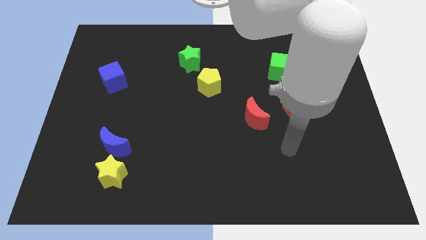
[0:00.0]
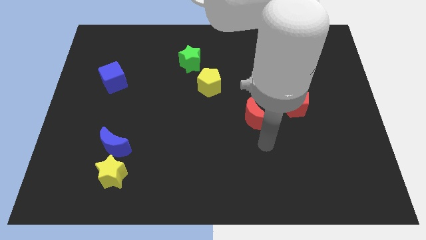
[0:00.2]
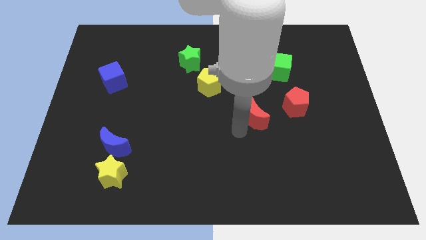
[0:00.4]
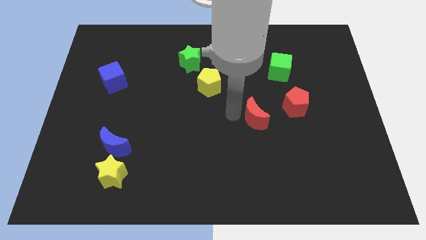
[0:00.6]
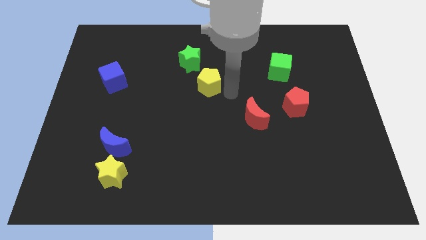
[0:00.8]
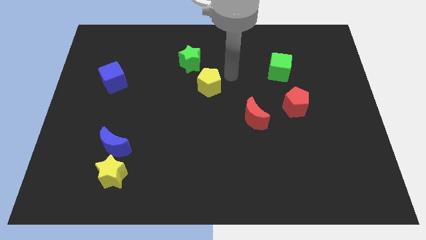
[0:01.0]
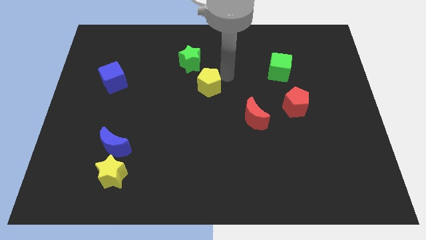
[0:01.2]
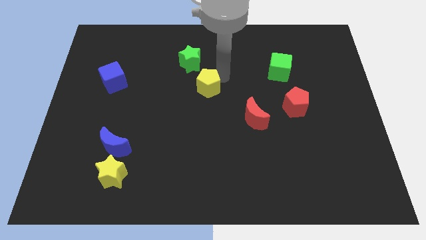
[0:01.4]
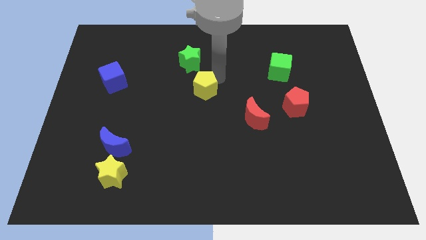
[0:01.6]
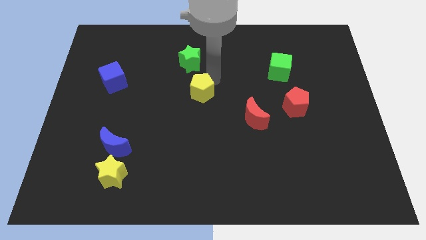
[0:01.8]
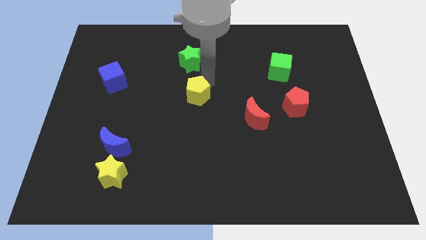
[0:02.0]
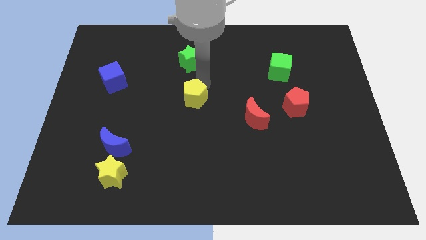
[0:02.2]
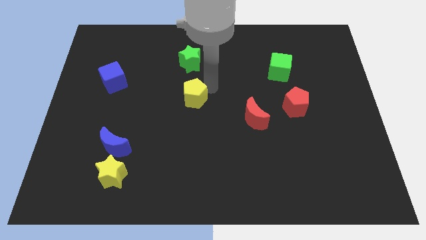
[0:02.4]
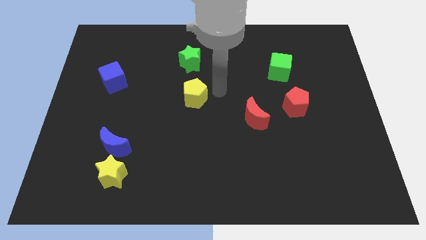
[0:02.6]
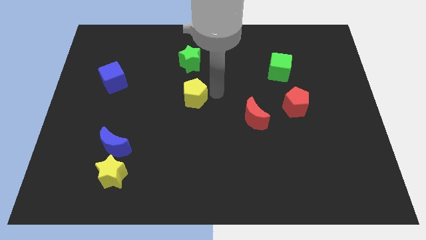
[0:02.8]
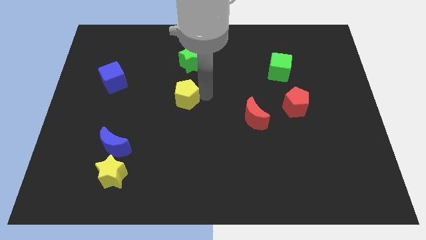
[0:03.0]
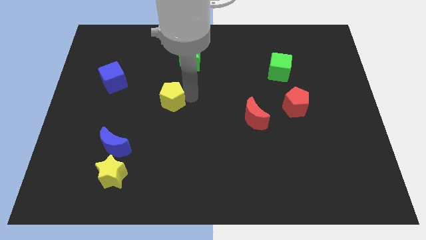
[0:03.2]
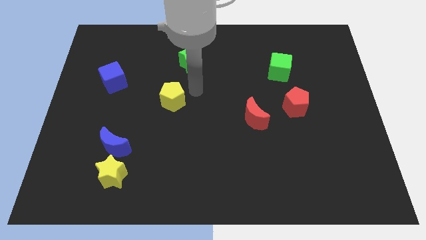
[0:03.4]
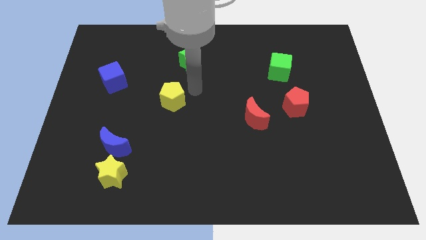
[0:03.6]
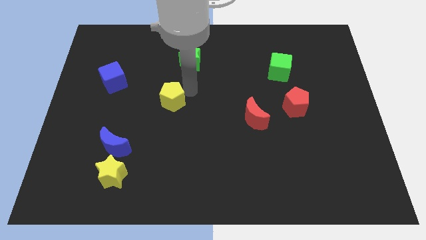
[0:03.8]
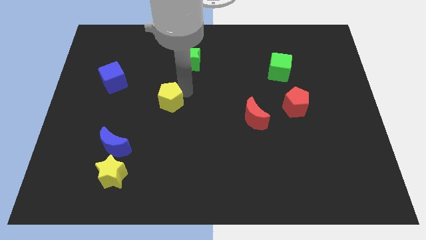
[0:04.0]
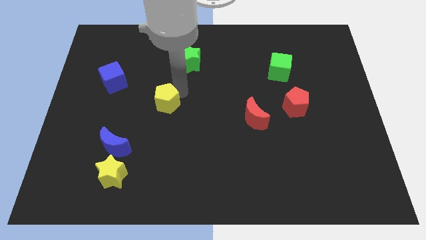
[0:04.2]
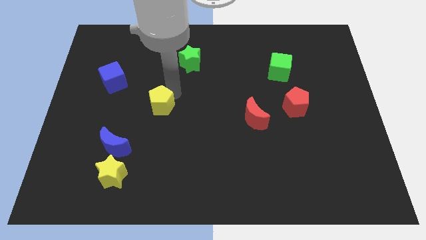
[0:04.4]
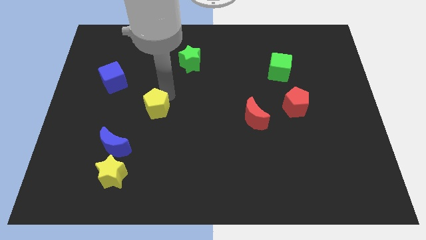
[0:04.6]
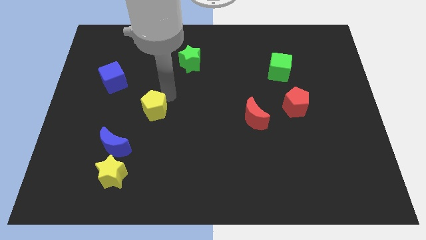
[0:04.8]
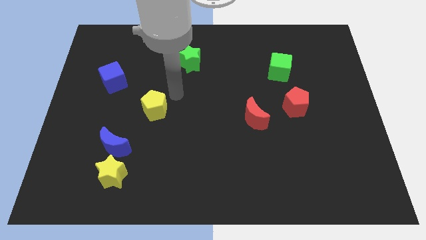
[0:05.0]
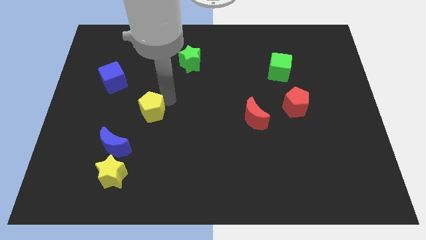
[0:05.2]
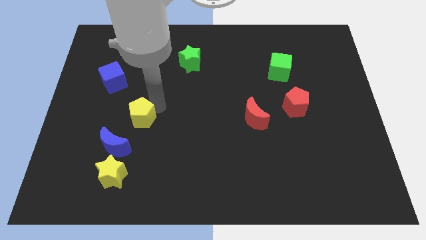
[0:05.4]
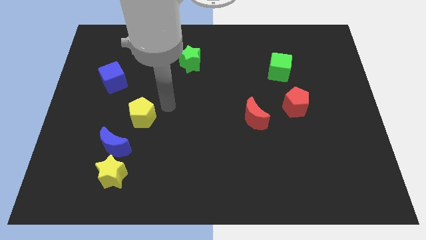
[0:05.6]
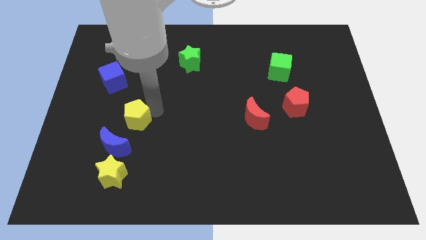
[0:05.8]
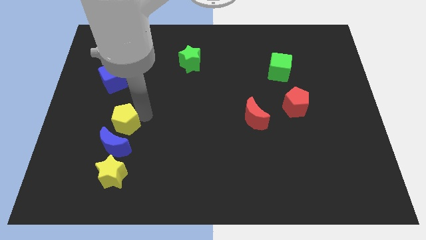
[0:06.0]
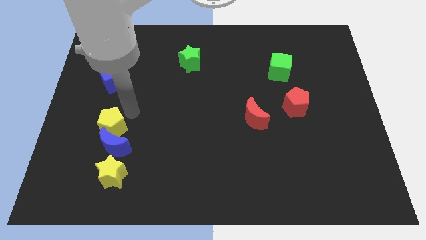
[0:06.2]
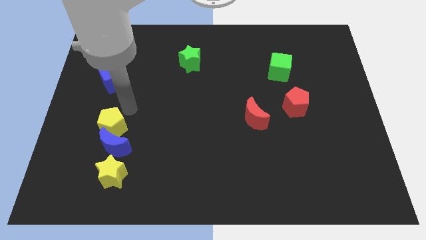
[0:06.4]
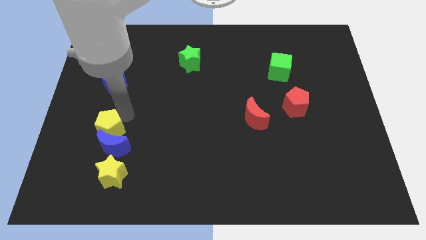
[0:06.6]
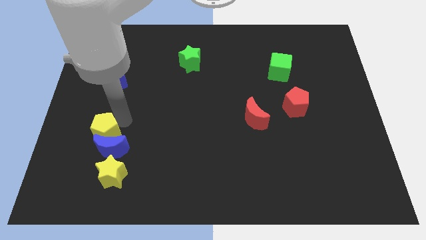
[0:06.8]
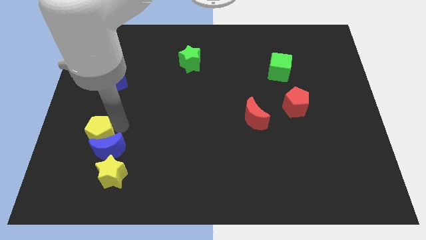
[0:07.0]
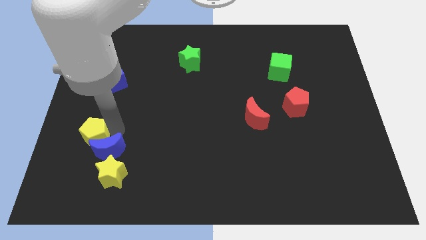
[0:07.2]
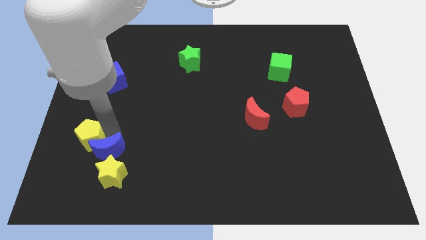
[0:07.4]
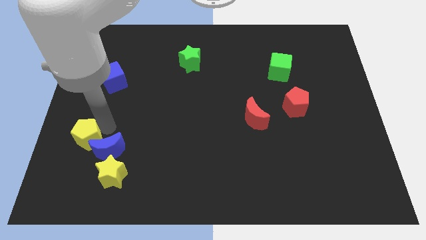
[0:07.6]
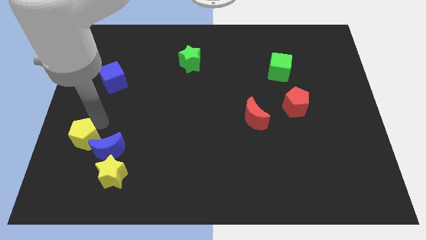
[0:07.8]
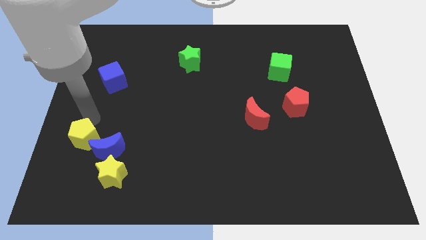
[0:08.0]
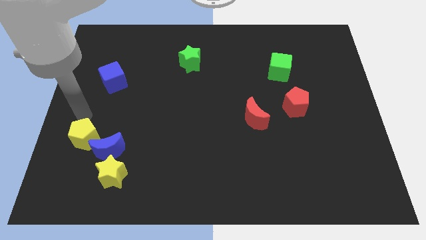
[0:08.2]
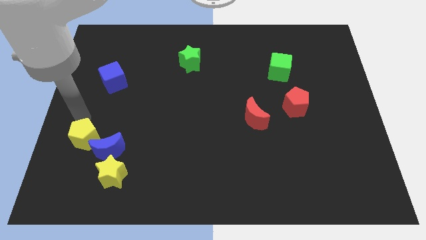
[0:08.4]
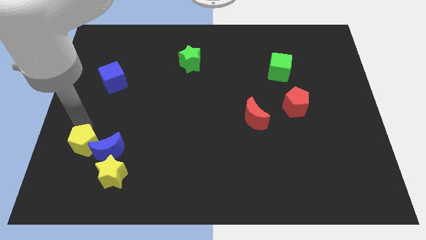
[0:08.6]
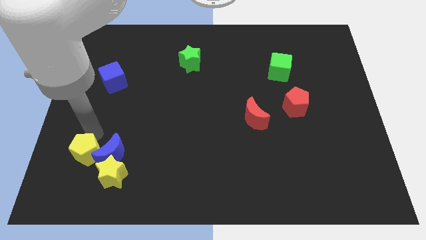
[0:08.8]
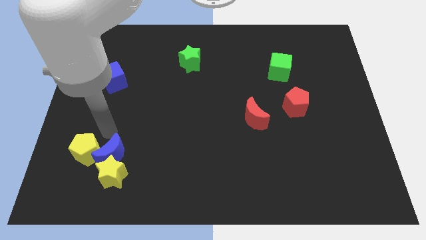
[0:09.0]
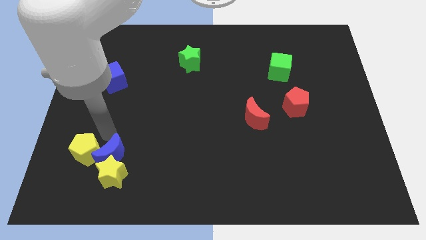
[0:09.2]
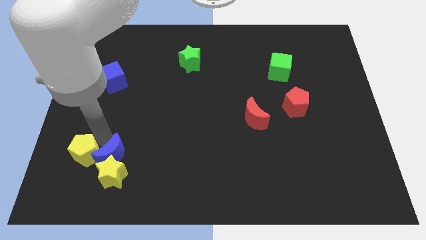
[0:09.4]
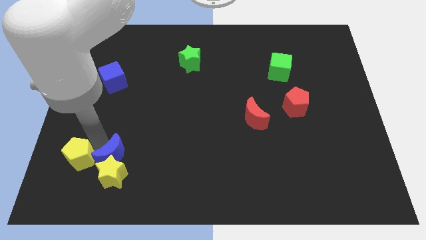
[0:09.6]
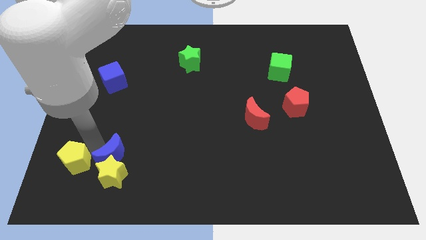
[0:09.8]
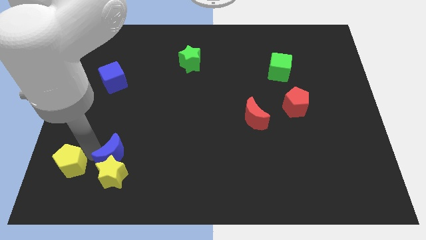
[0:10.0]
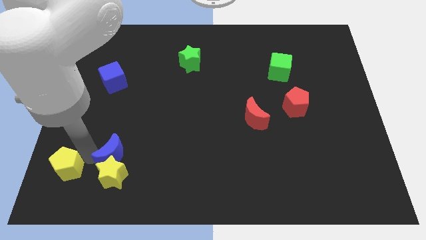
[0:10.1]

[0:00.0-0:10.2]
push the yellow pentagon to the bottom left corner

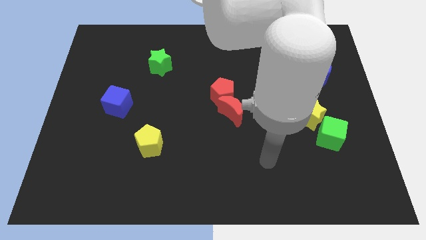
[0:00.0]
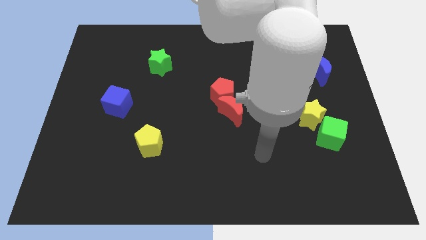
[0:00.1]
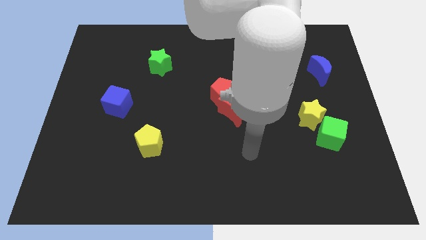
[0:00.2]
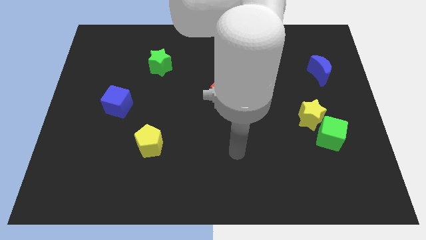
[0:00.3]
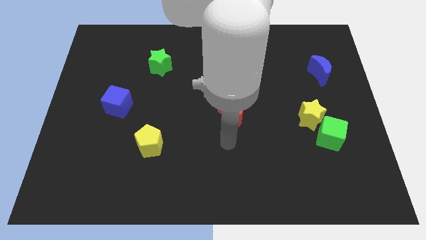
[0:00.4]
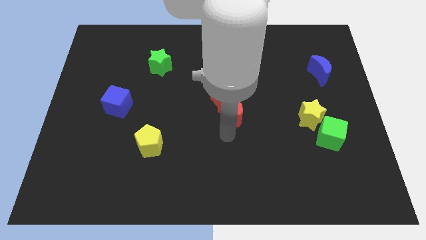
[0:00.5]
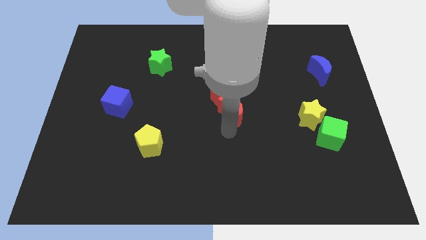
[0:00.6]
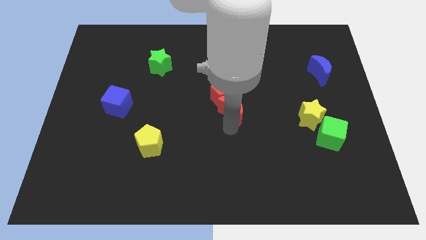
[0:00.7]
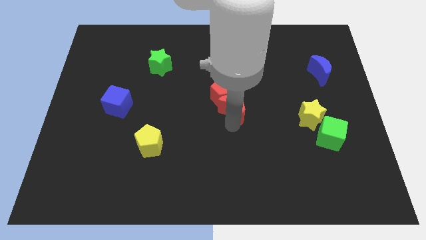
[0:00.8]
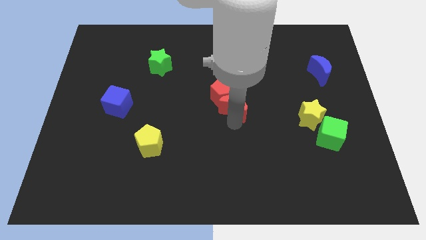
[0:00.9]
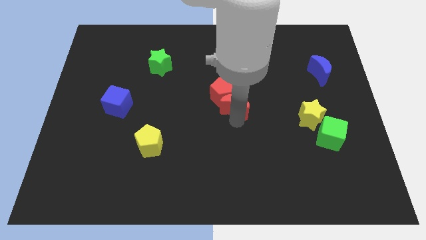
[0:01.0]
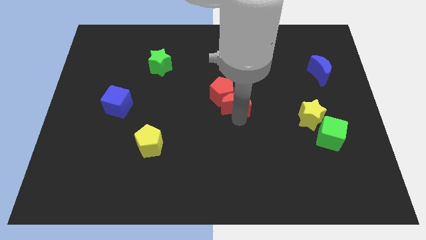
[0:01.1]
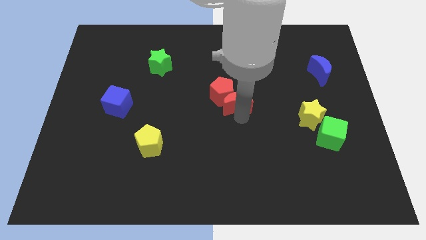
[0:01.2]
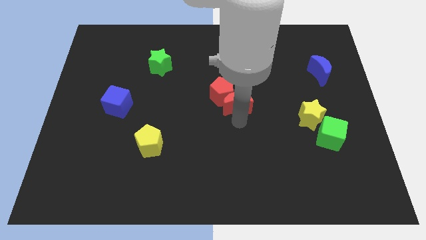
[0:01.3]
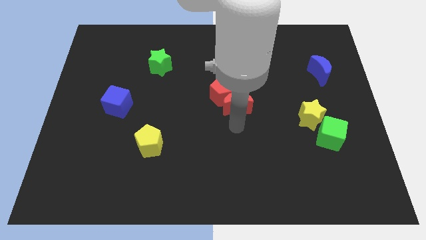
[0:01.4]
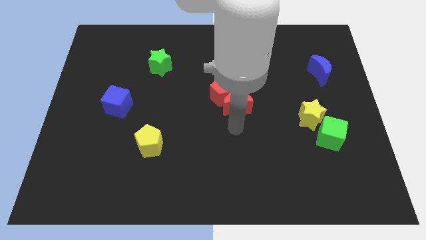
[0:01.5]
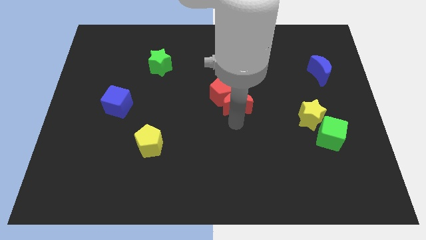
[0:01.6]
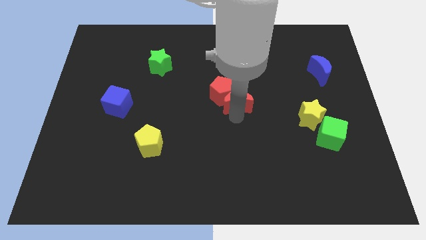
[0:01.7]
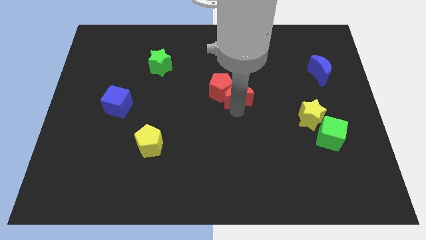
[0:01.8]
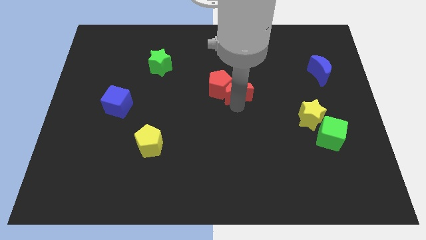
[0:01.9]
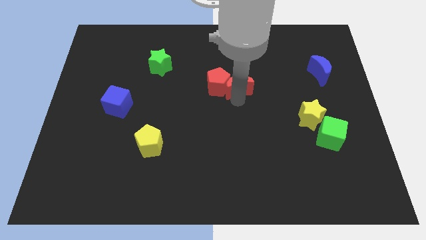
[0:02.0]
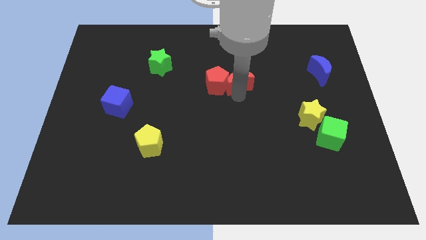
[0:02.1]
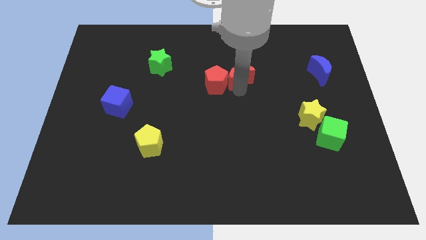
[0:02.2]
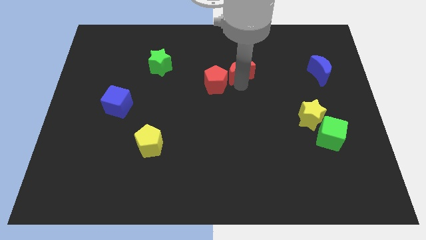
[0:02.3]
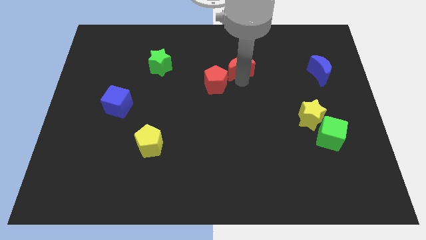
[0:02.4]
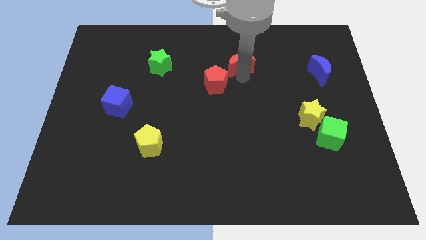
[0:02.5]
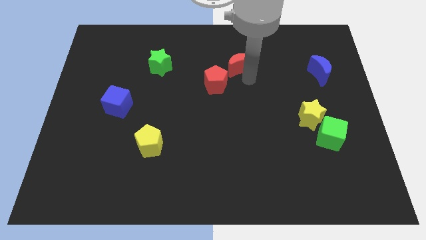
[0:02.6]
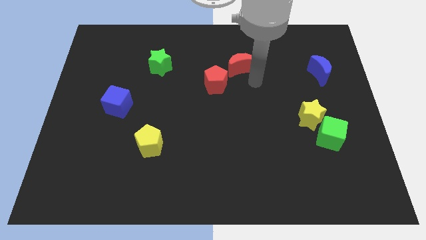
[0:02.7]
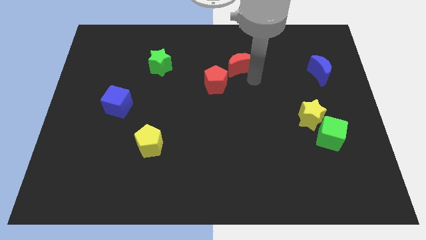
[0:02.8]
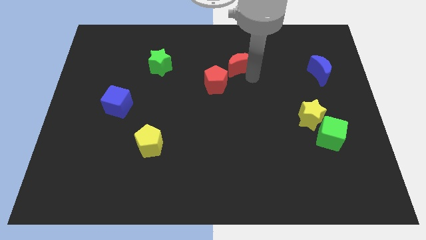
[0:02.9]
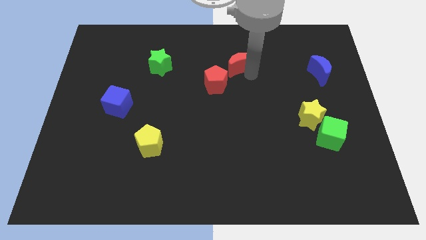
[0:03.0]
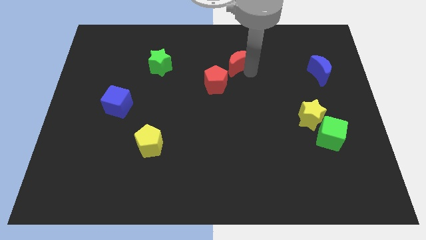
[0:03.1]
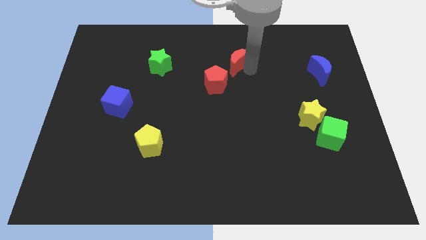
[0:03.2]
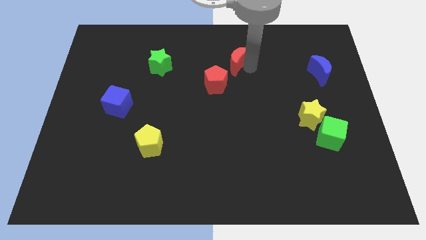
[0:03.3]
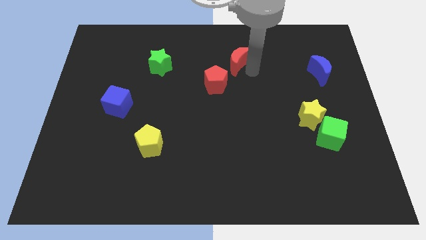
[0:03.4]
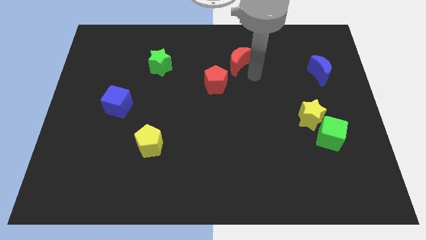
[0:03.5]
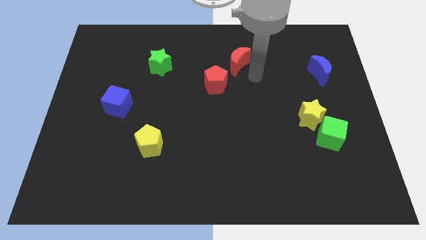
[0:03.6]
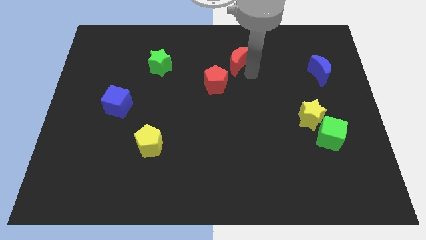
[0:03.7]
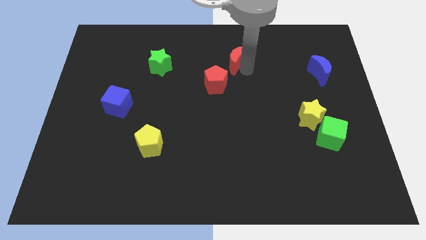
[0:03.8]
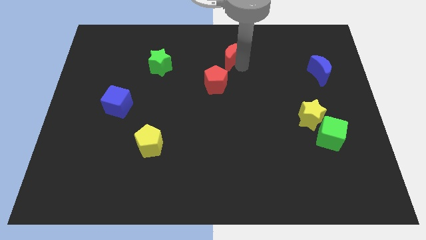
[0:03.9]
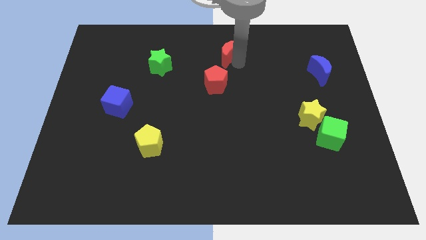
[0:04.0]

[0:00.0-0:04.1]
put the red moon to the towards your base
